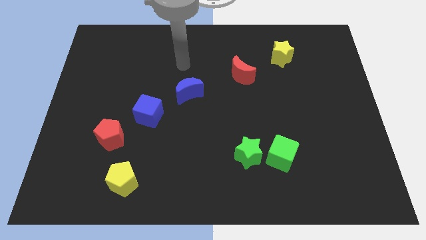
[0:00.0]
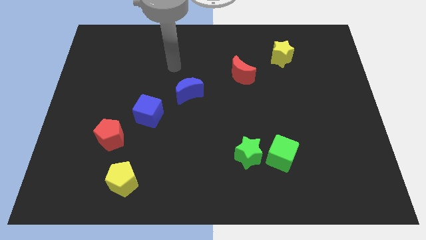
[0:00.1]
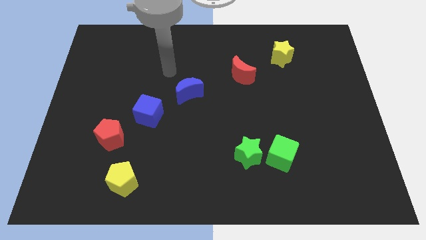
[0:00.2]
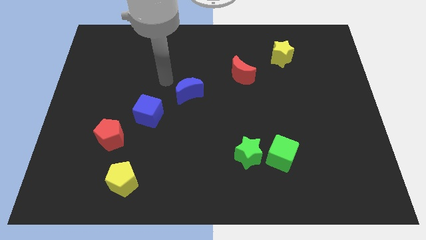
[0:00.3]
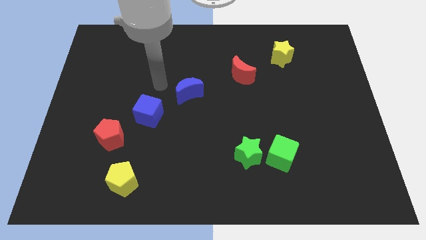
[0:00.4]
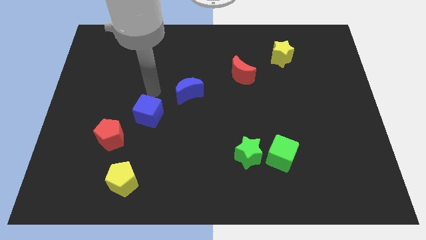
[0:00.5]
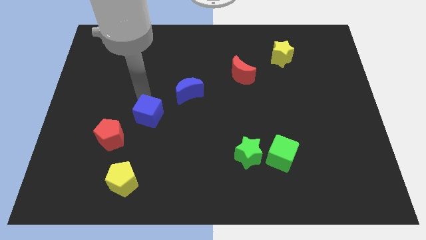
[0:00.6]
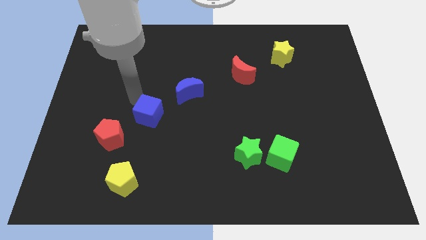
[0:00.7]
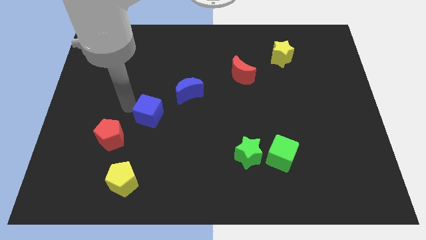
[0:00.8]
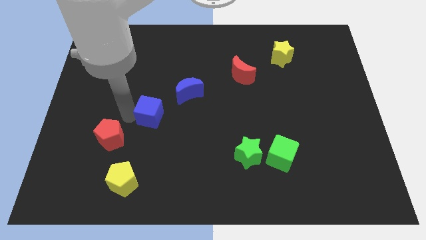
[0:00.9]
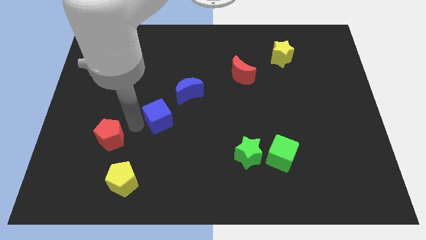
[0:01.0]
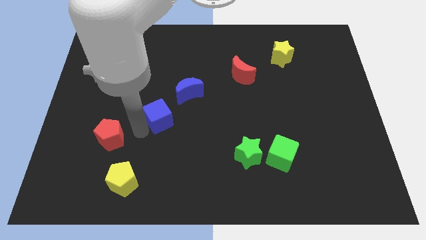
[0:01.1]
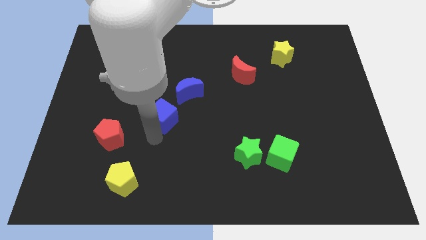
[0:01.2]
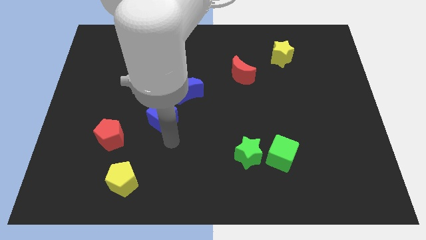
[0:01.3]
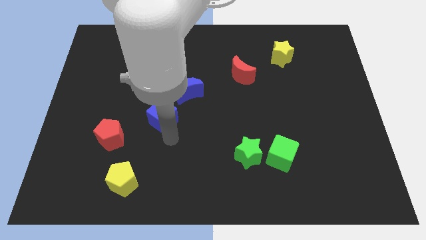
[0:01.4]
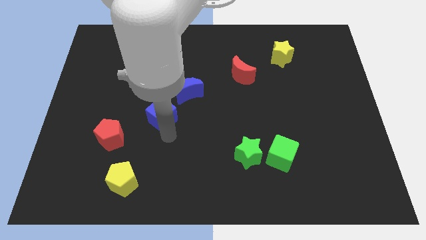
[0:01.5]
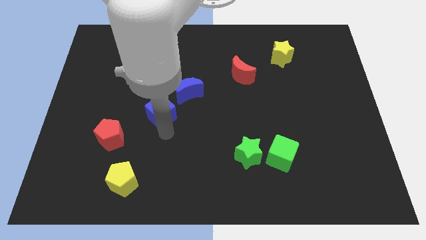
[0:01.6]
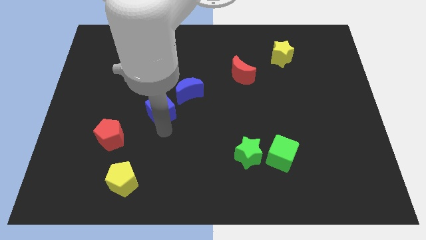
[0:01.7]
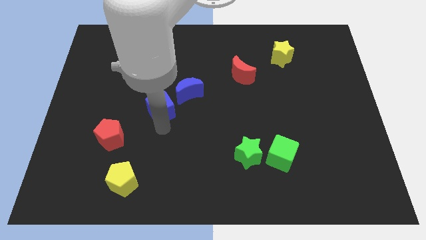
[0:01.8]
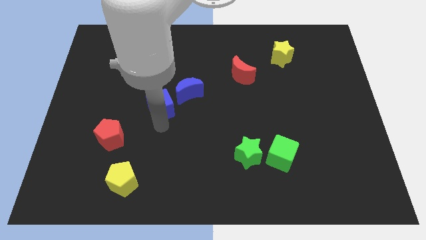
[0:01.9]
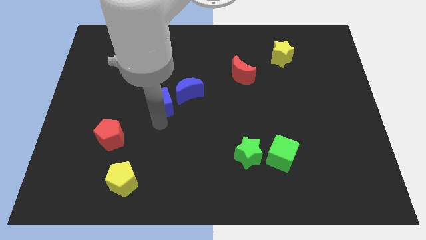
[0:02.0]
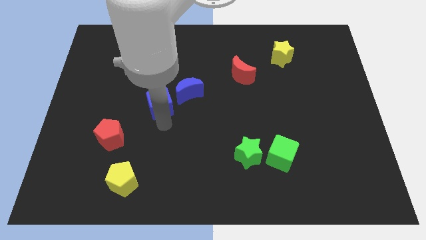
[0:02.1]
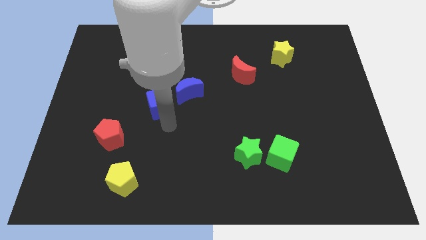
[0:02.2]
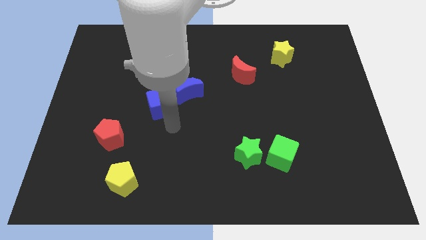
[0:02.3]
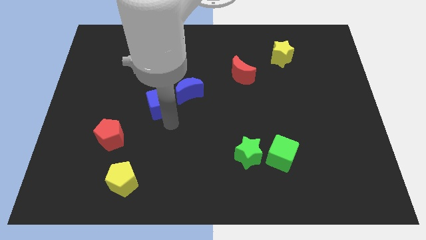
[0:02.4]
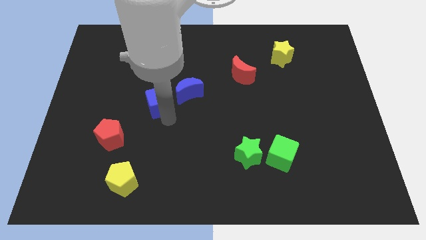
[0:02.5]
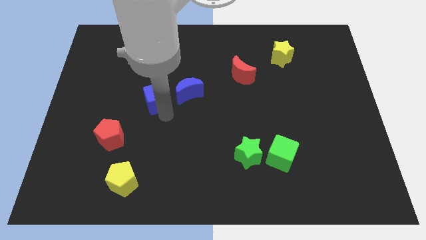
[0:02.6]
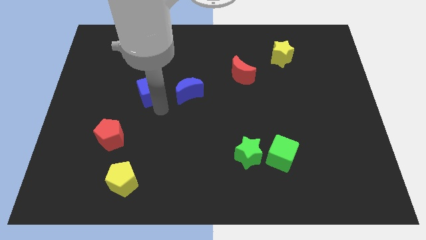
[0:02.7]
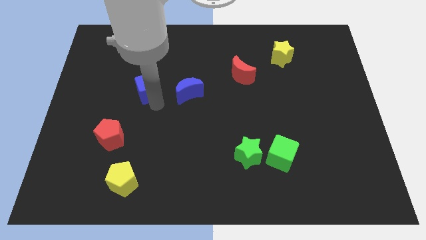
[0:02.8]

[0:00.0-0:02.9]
slide the blue cube somewhat upwards

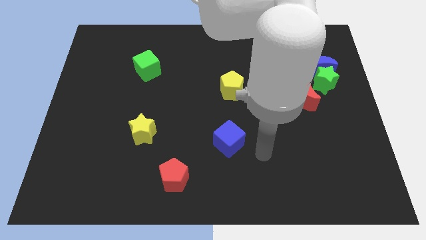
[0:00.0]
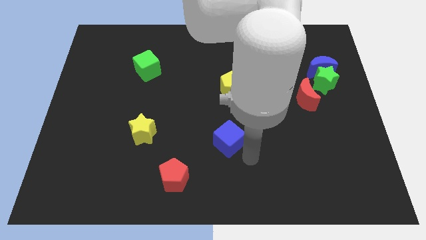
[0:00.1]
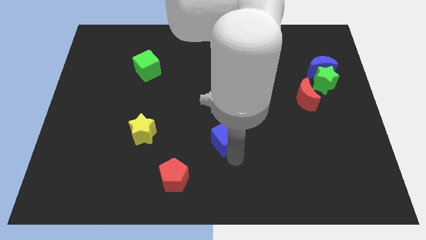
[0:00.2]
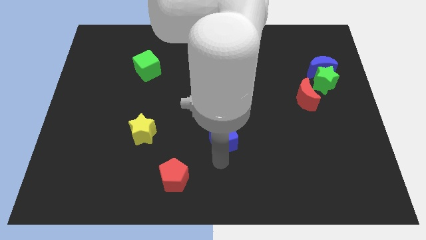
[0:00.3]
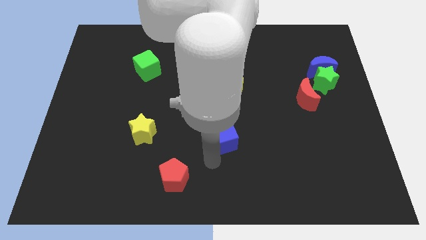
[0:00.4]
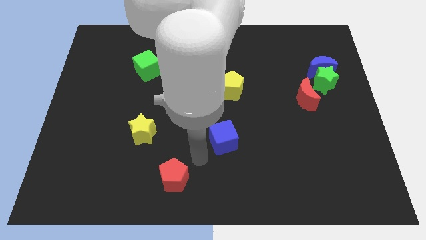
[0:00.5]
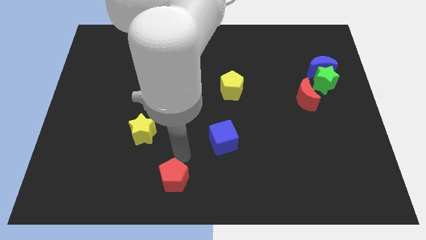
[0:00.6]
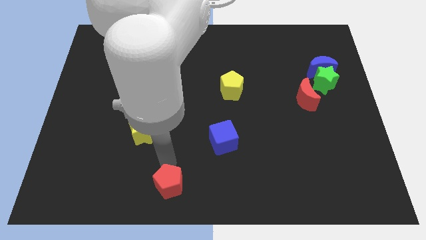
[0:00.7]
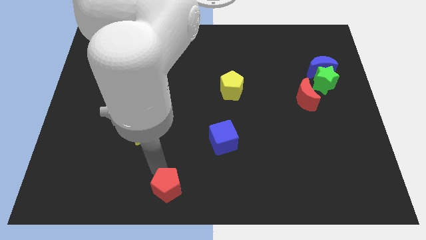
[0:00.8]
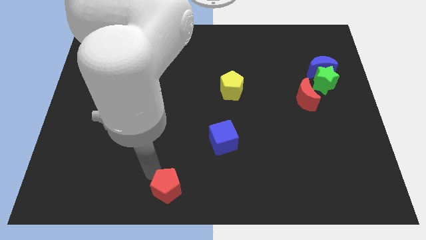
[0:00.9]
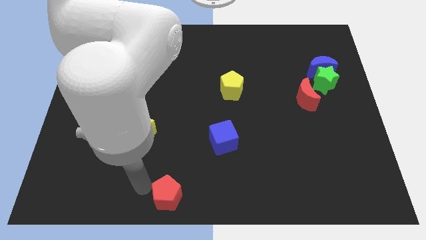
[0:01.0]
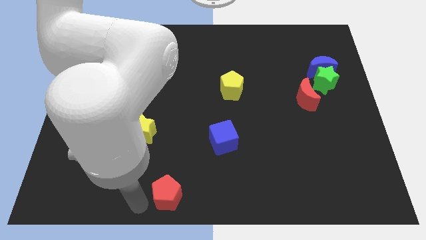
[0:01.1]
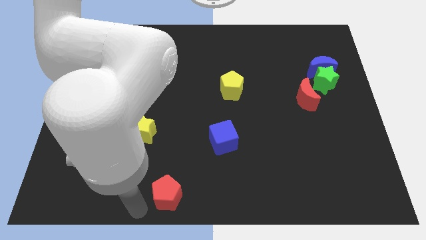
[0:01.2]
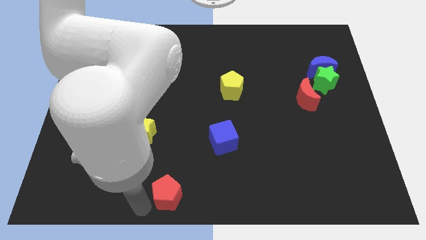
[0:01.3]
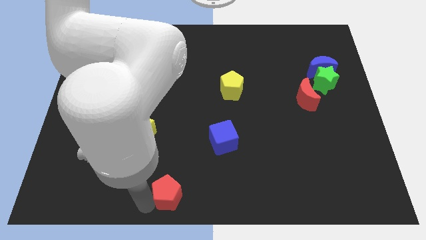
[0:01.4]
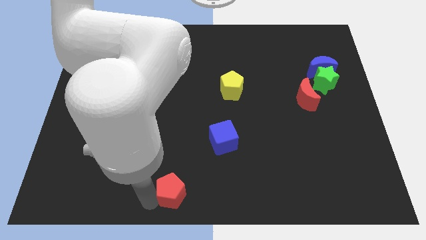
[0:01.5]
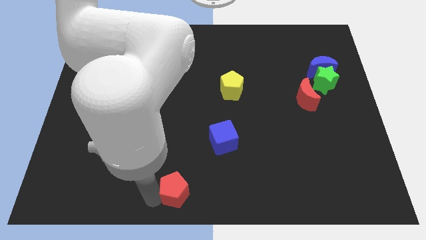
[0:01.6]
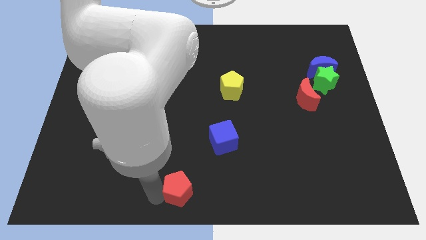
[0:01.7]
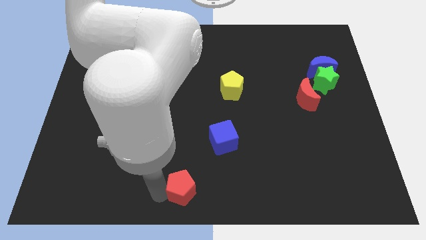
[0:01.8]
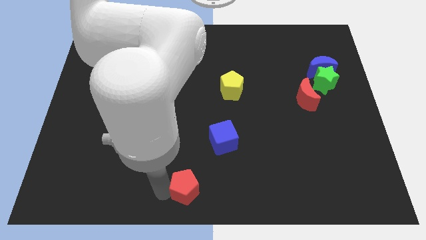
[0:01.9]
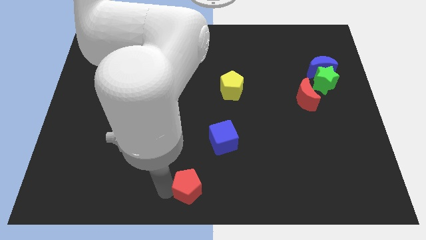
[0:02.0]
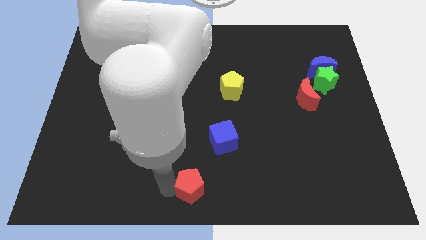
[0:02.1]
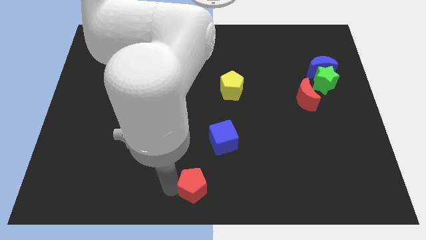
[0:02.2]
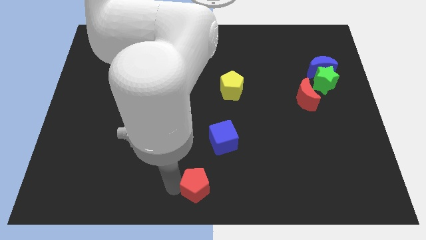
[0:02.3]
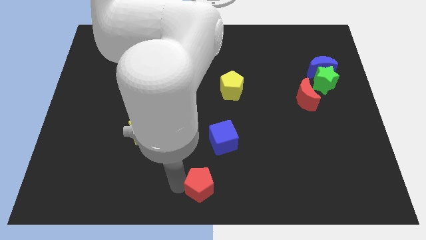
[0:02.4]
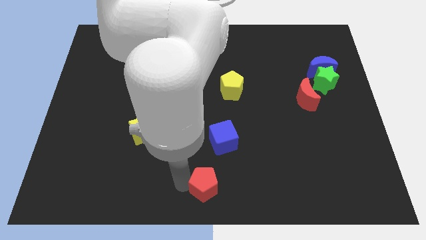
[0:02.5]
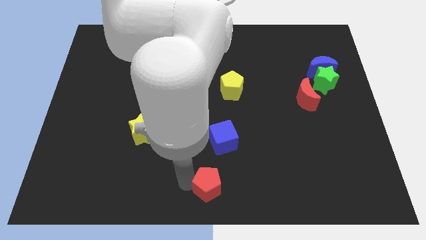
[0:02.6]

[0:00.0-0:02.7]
move the red pentagon a little bit to the right

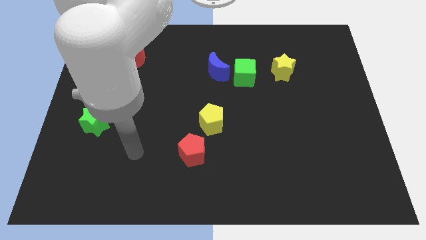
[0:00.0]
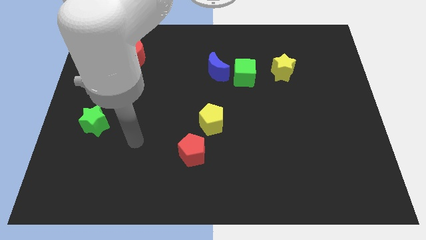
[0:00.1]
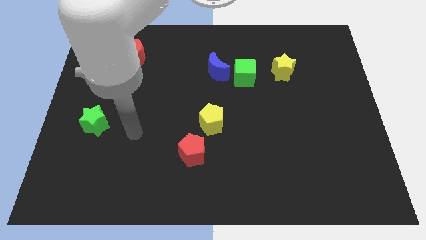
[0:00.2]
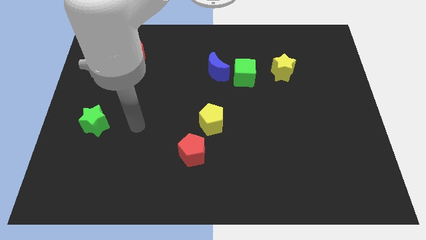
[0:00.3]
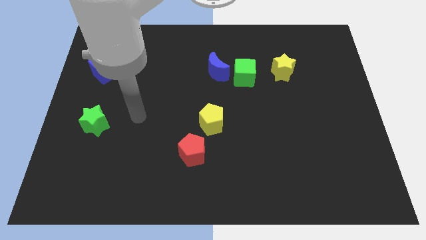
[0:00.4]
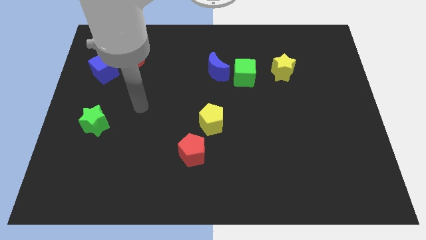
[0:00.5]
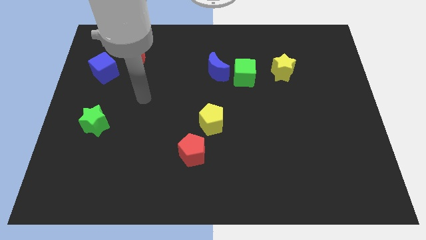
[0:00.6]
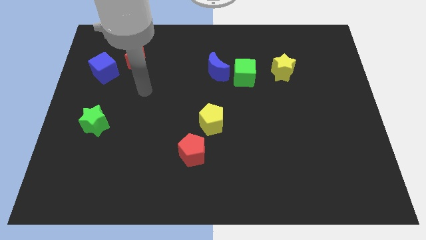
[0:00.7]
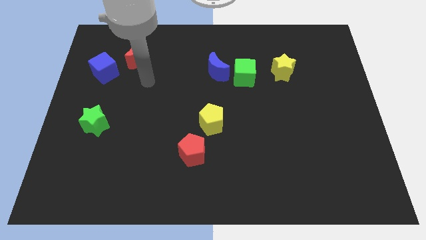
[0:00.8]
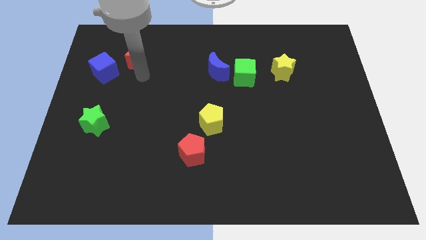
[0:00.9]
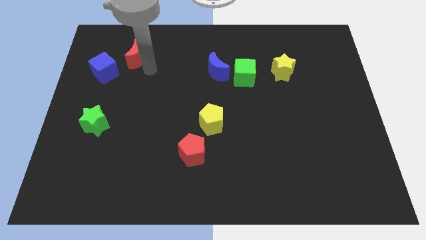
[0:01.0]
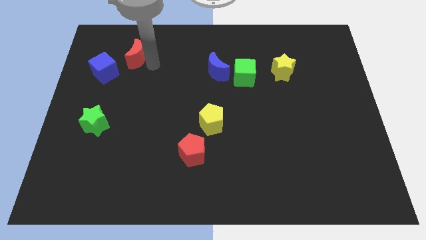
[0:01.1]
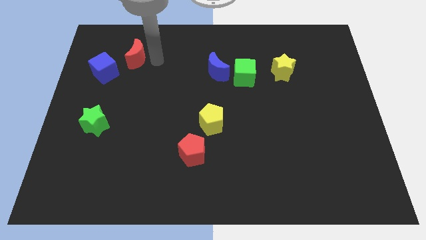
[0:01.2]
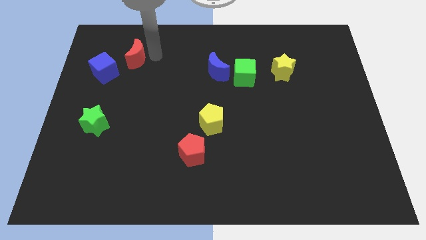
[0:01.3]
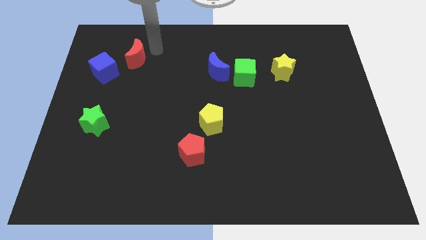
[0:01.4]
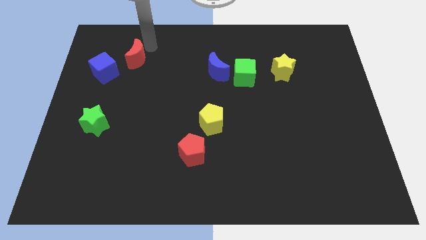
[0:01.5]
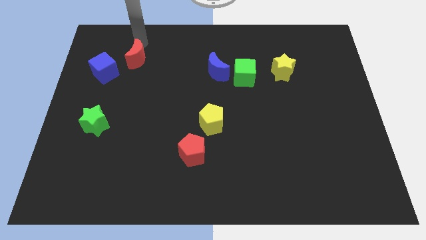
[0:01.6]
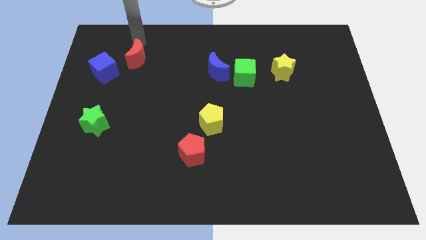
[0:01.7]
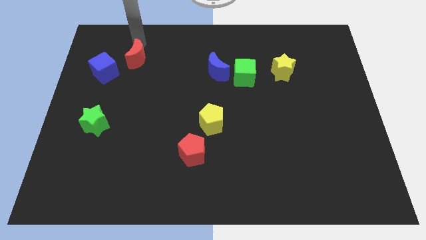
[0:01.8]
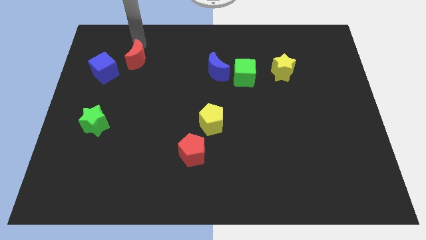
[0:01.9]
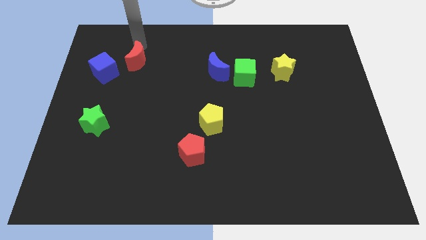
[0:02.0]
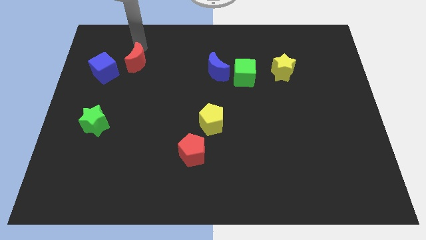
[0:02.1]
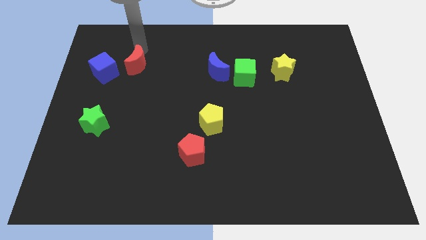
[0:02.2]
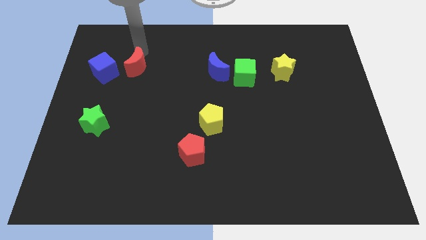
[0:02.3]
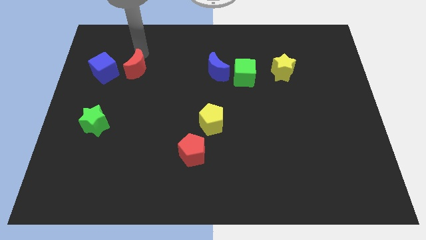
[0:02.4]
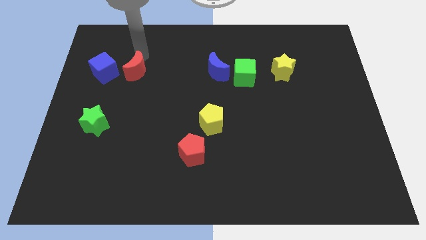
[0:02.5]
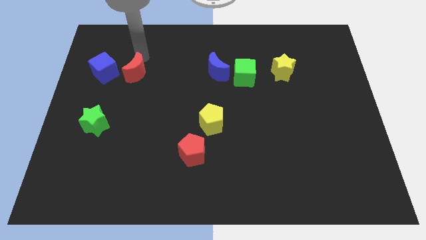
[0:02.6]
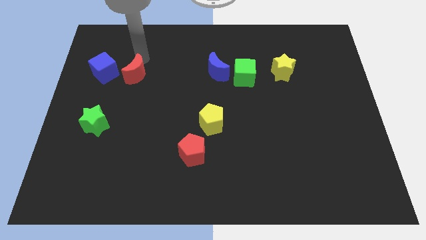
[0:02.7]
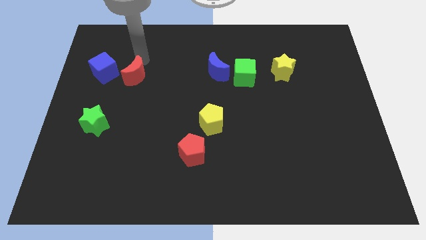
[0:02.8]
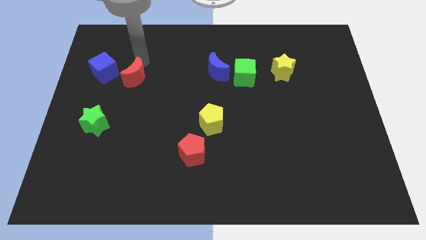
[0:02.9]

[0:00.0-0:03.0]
move the red moon a bit down
